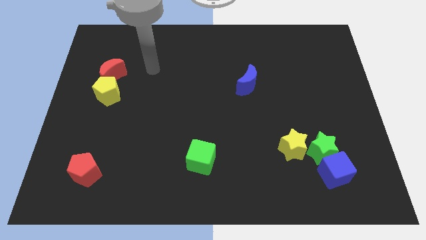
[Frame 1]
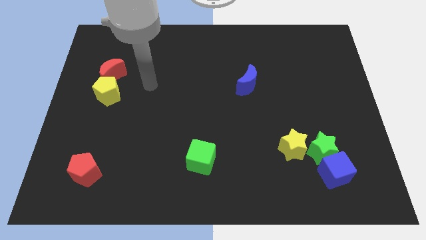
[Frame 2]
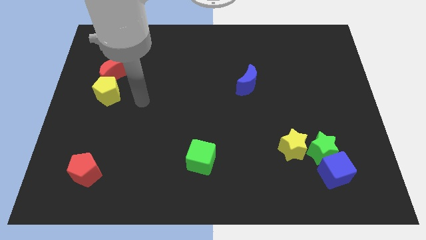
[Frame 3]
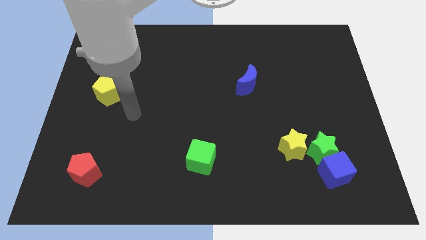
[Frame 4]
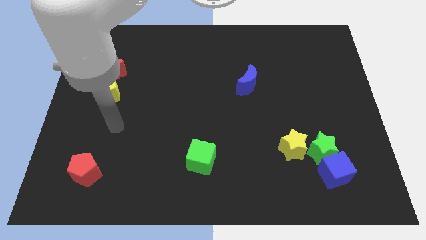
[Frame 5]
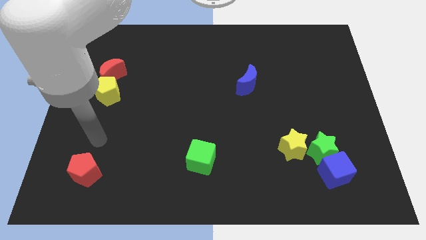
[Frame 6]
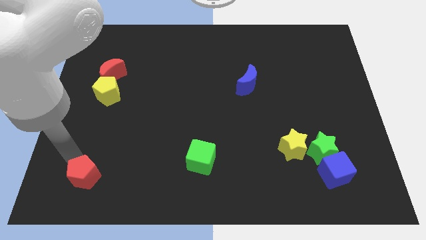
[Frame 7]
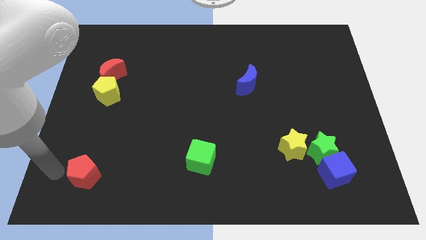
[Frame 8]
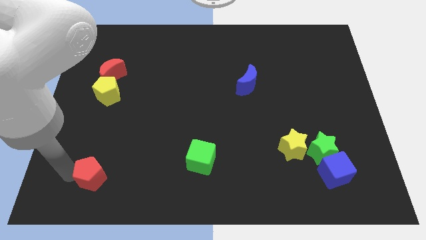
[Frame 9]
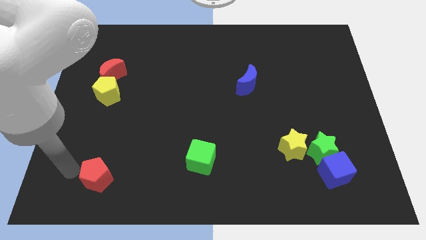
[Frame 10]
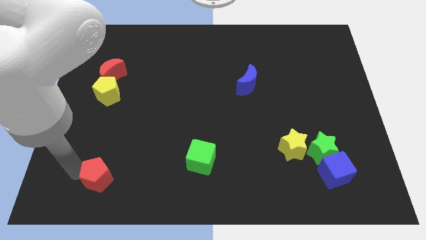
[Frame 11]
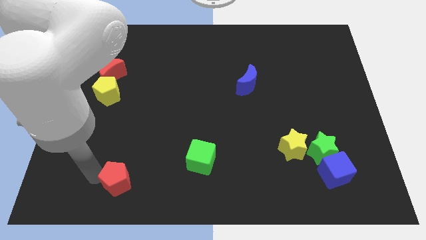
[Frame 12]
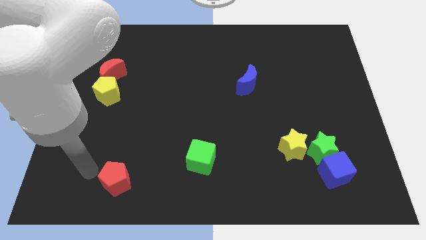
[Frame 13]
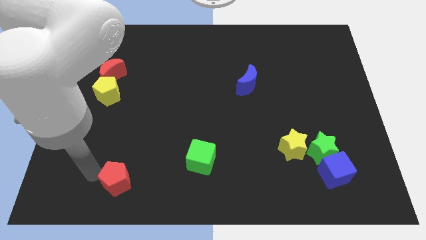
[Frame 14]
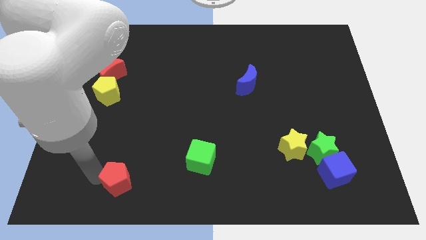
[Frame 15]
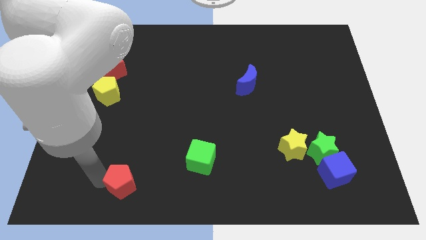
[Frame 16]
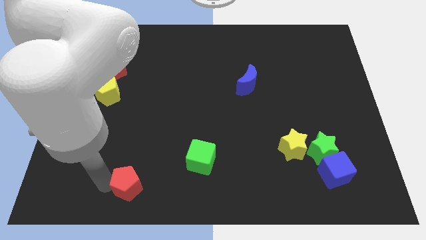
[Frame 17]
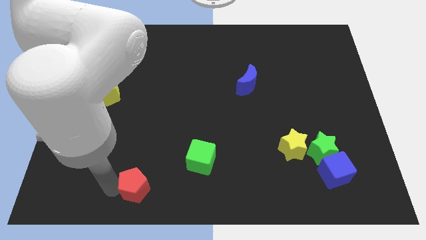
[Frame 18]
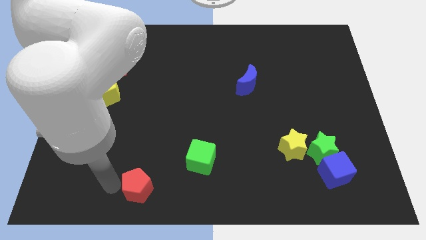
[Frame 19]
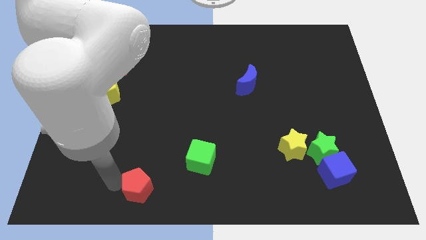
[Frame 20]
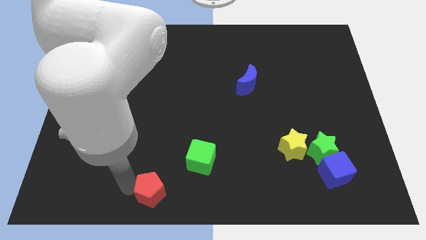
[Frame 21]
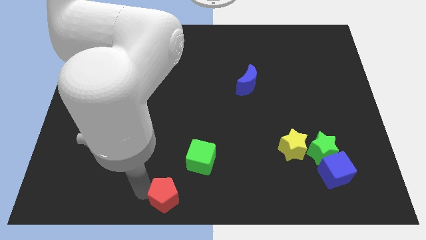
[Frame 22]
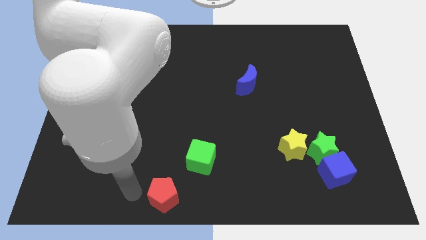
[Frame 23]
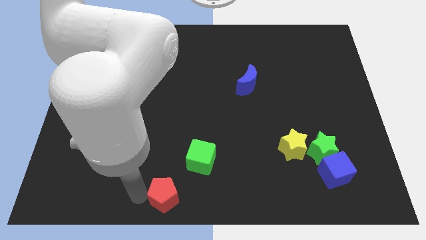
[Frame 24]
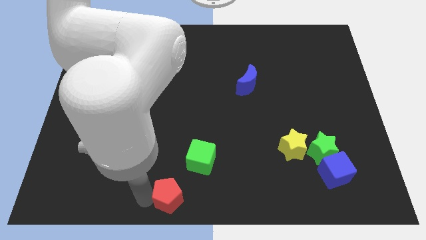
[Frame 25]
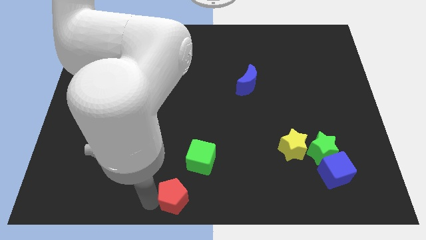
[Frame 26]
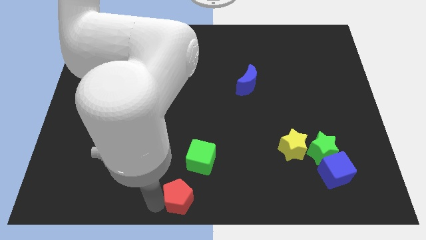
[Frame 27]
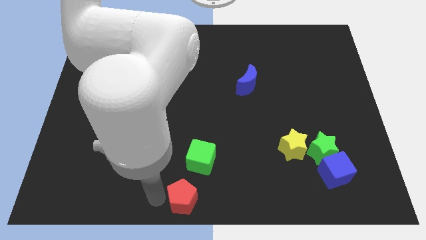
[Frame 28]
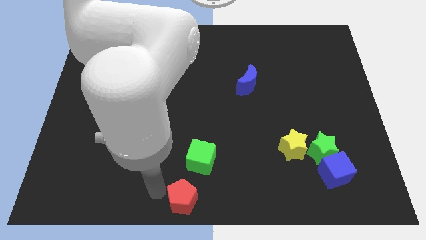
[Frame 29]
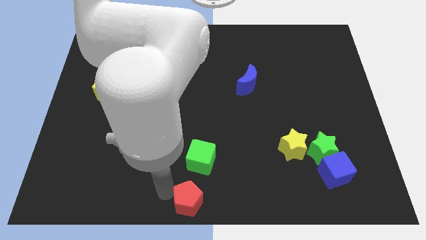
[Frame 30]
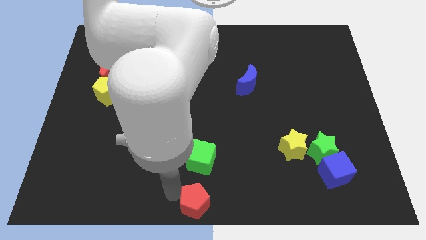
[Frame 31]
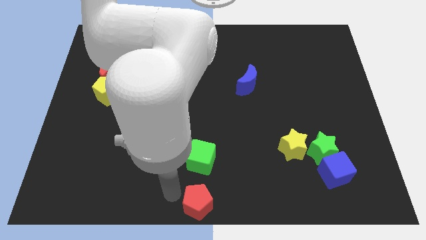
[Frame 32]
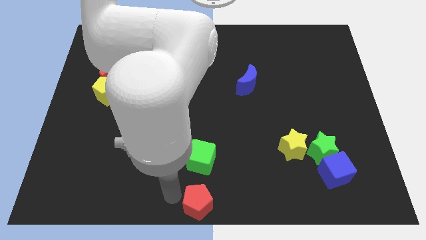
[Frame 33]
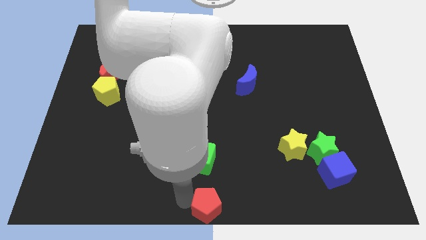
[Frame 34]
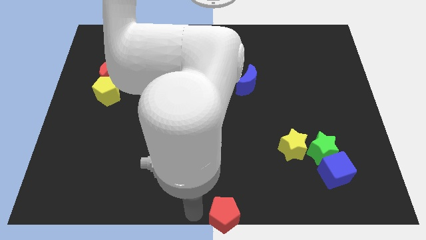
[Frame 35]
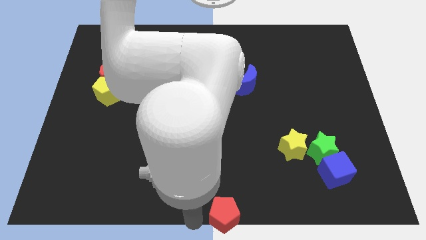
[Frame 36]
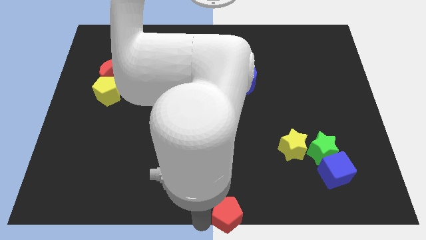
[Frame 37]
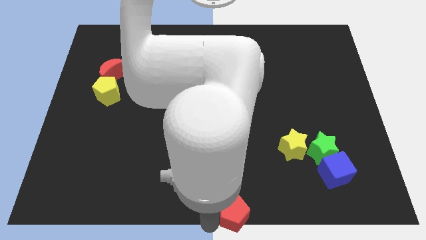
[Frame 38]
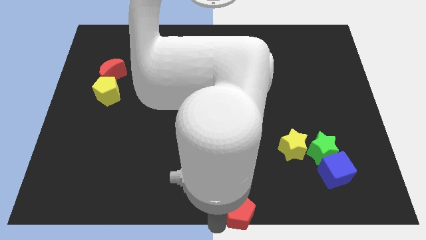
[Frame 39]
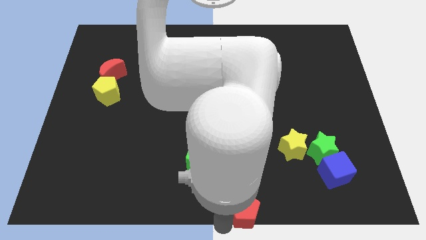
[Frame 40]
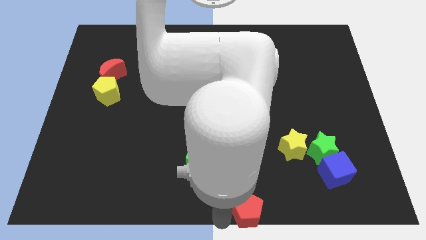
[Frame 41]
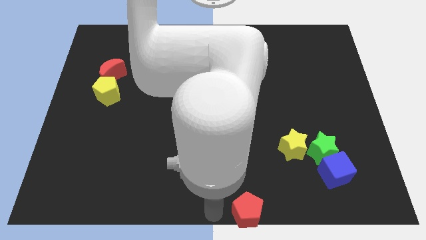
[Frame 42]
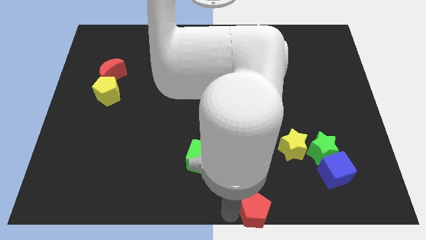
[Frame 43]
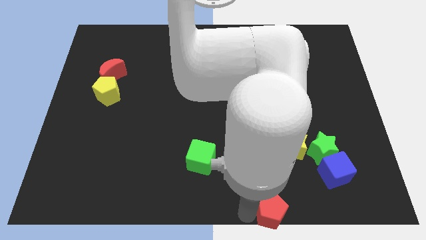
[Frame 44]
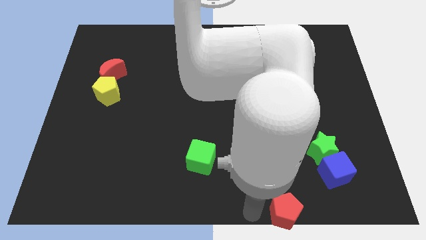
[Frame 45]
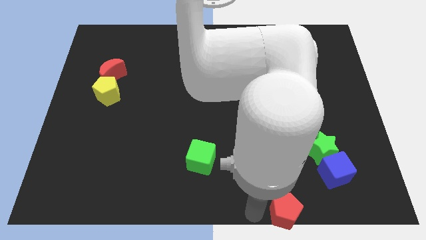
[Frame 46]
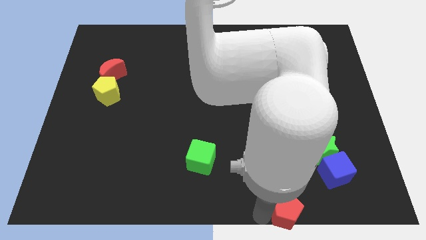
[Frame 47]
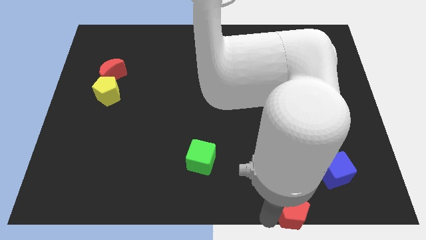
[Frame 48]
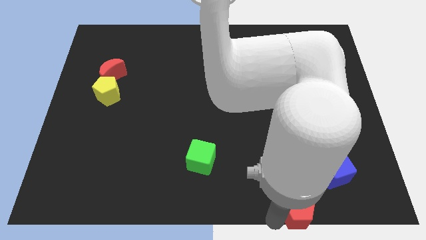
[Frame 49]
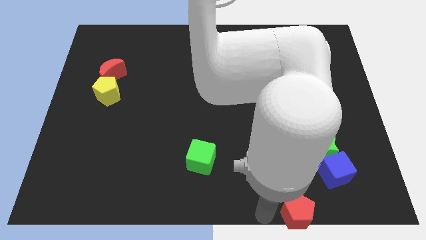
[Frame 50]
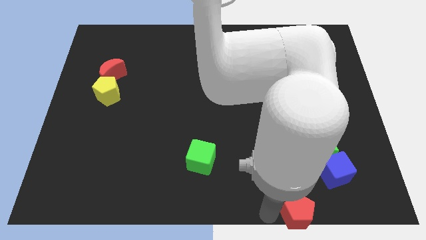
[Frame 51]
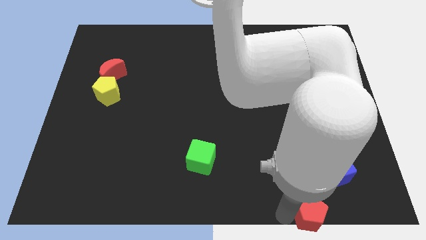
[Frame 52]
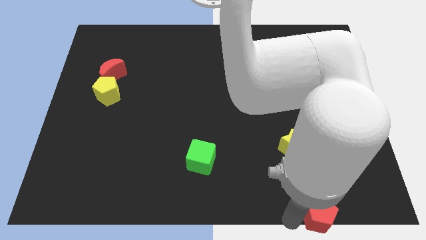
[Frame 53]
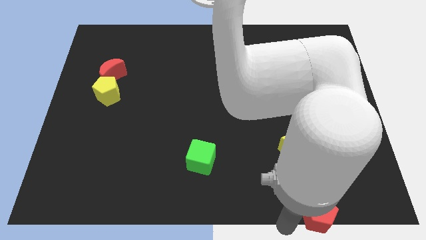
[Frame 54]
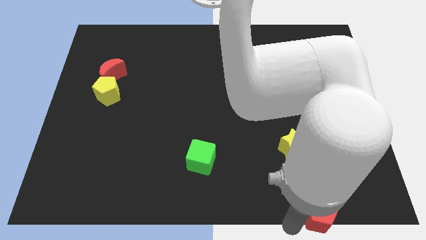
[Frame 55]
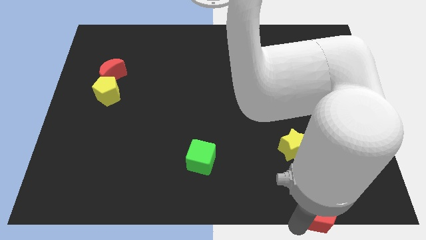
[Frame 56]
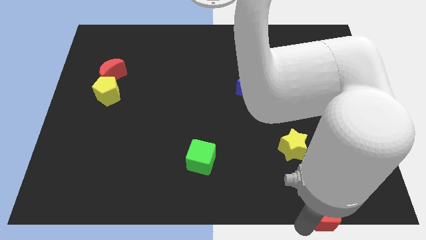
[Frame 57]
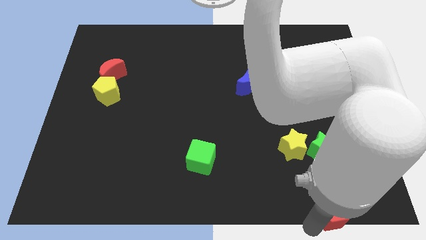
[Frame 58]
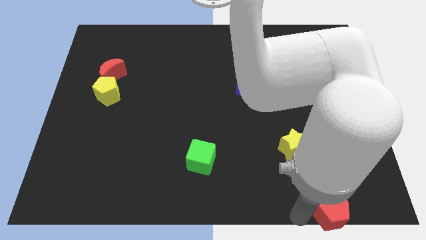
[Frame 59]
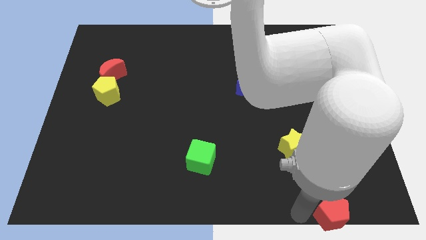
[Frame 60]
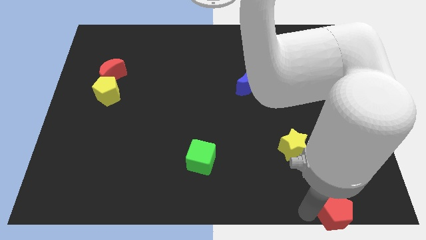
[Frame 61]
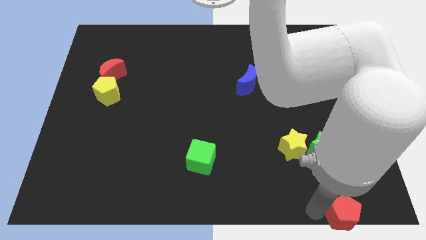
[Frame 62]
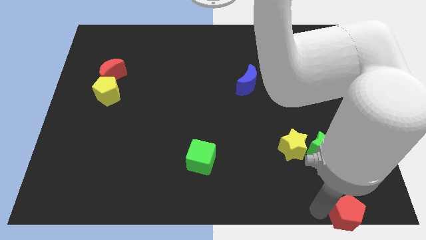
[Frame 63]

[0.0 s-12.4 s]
move the red pentagon to the bottom right of the board
